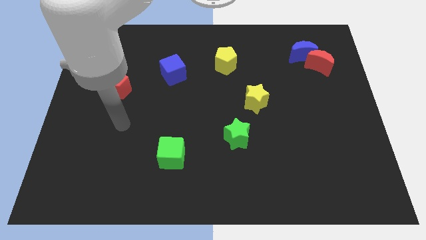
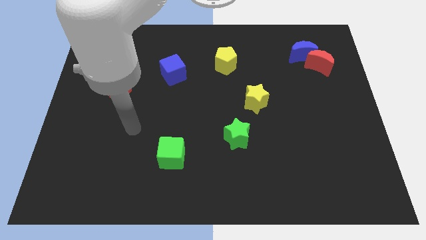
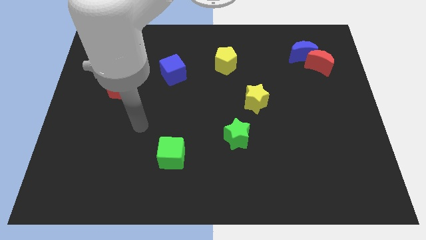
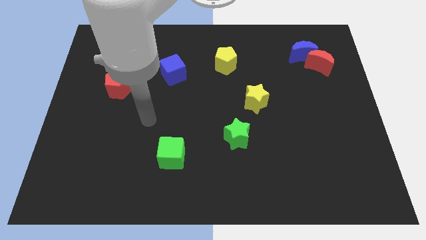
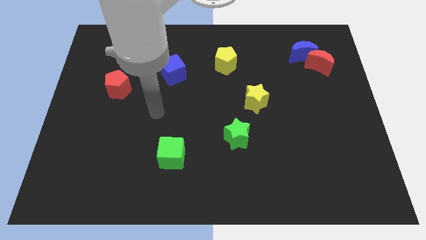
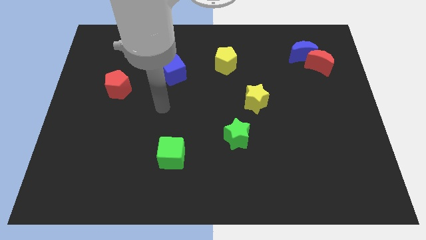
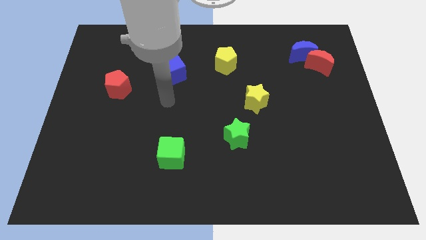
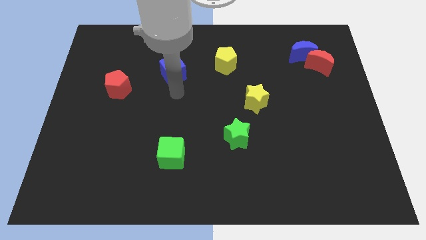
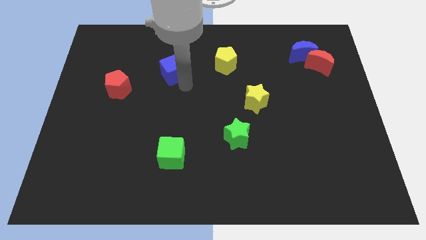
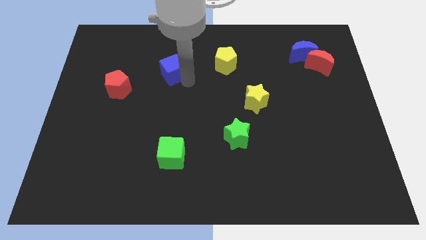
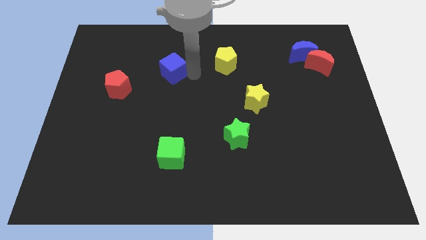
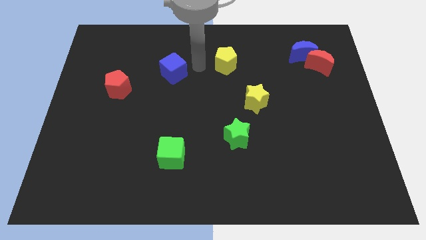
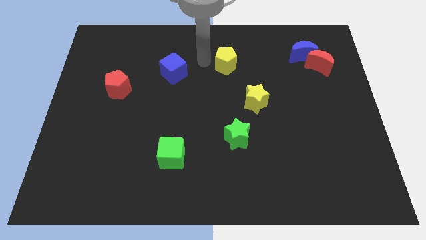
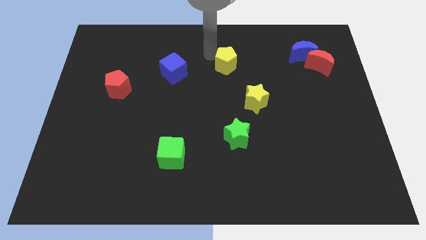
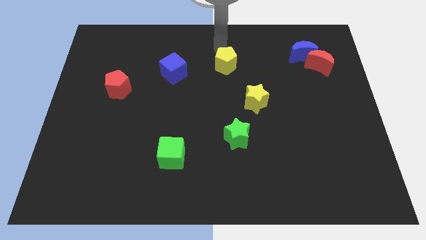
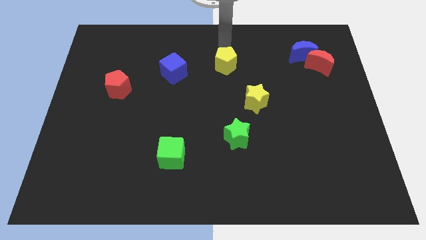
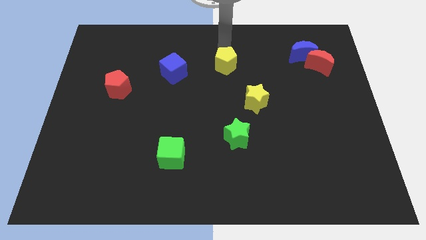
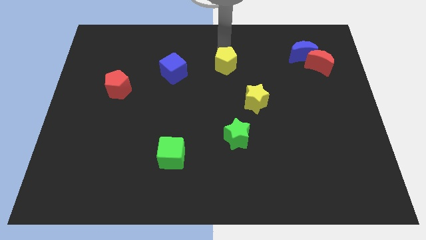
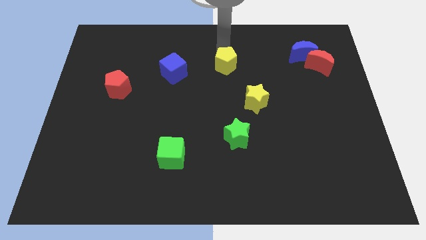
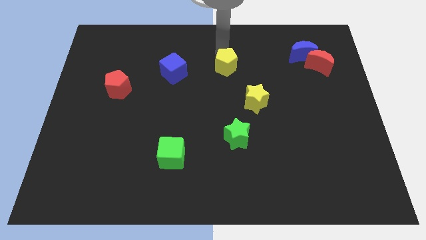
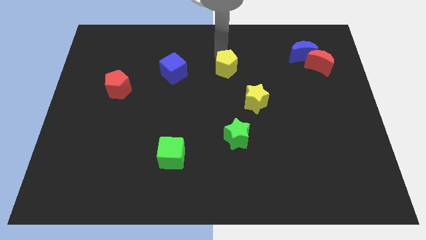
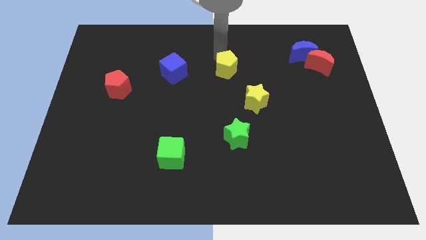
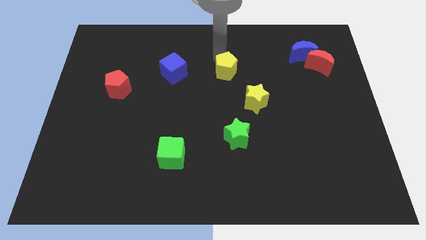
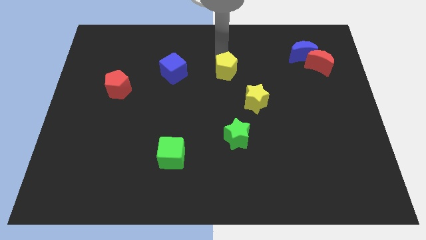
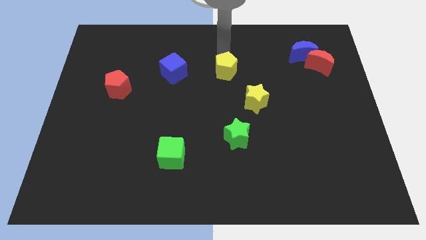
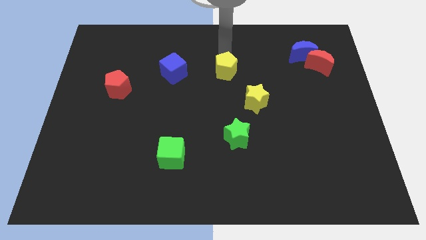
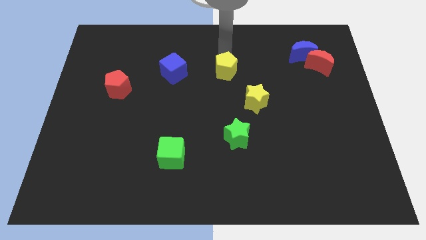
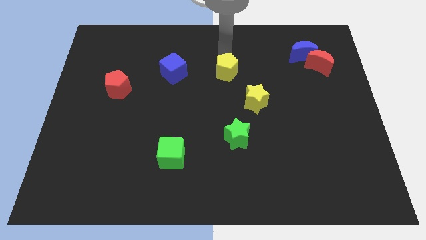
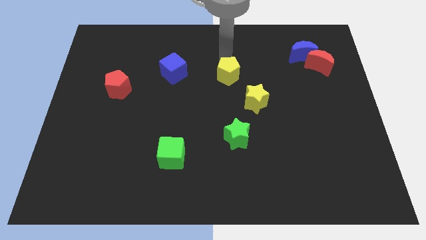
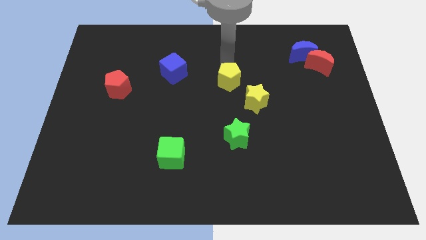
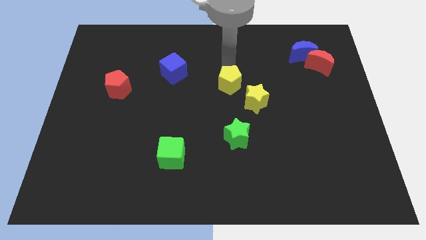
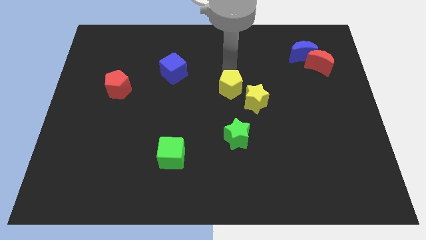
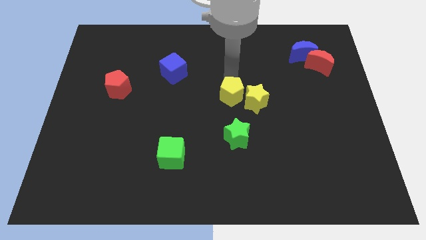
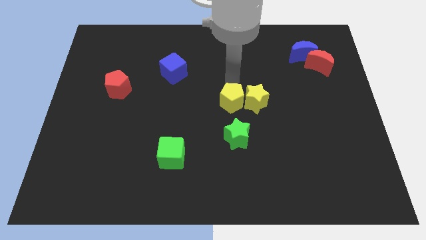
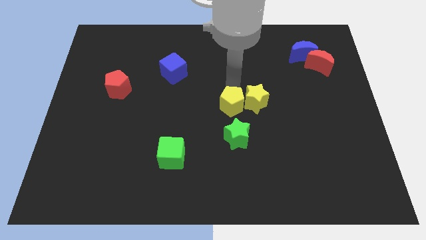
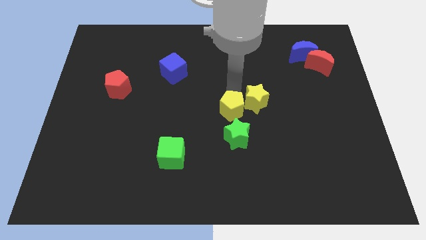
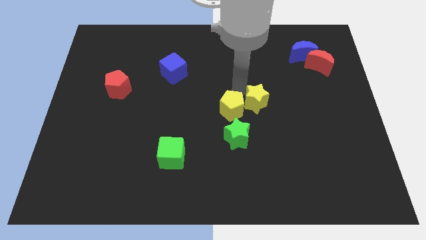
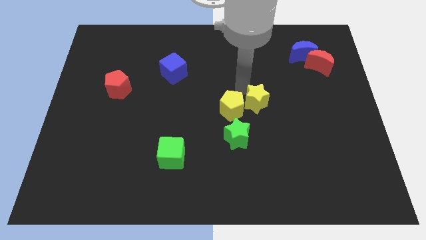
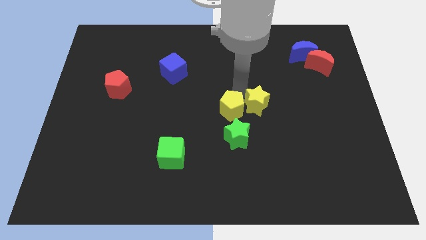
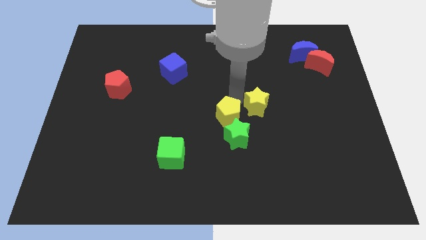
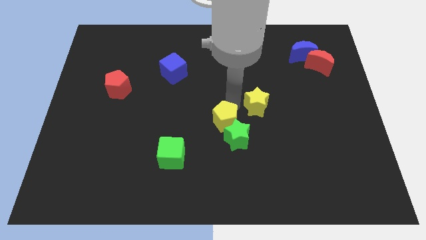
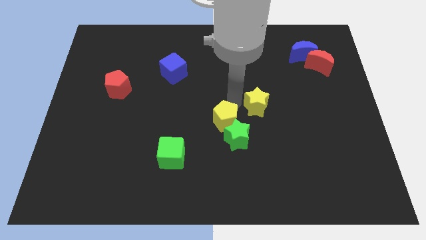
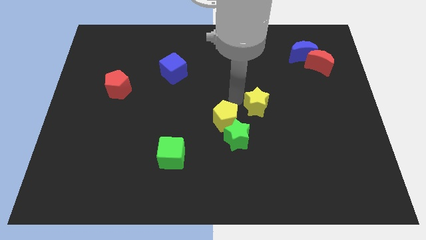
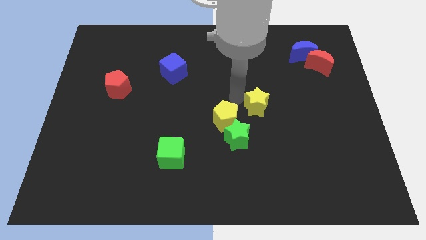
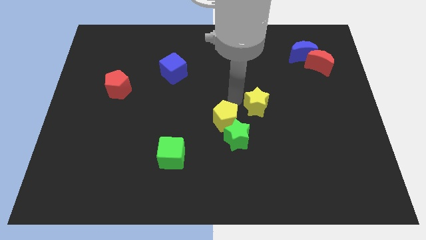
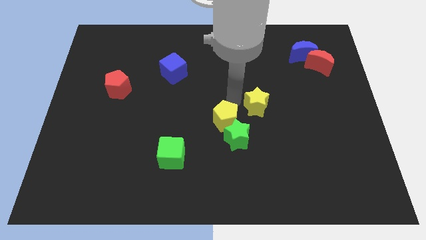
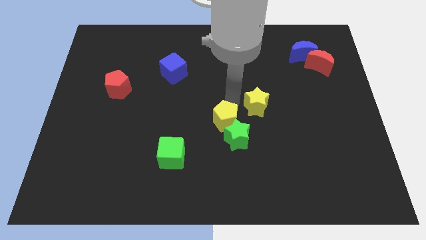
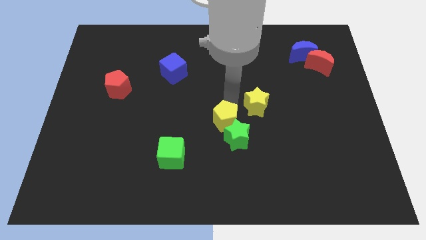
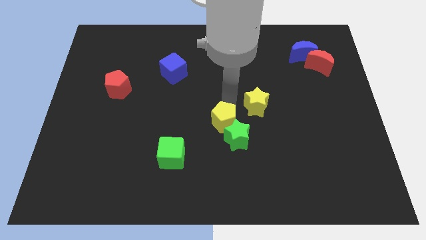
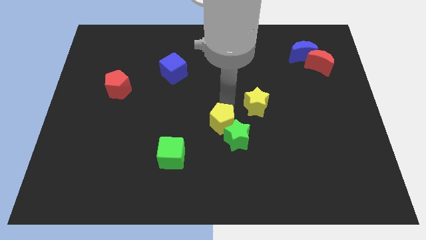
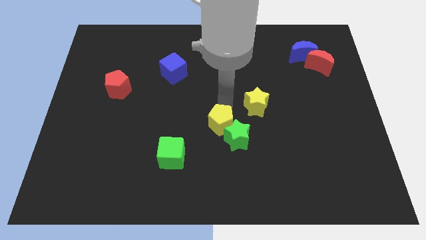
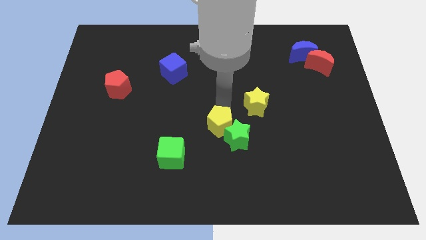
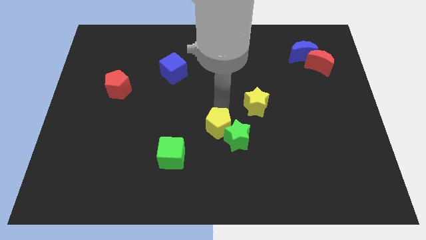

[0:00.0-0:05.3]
move the yellow pentagon down

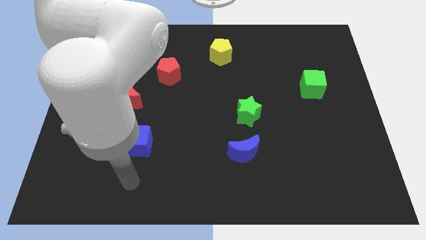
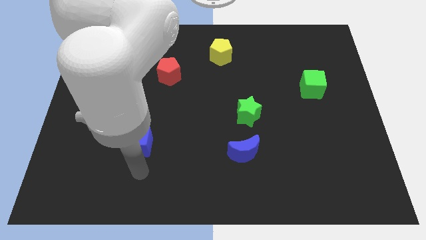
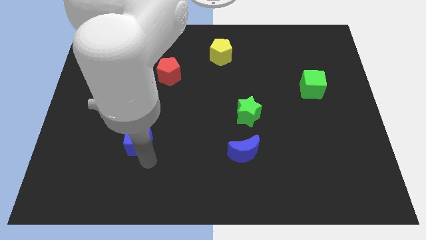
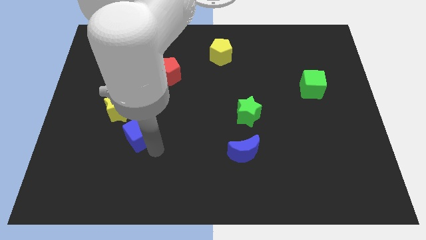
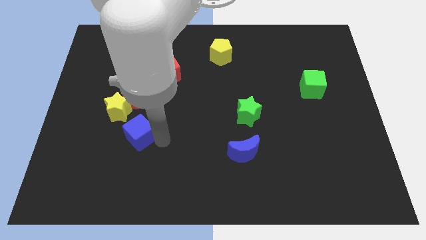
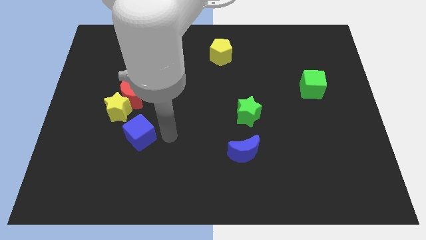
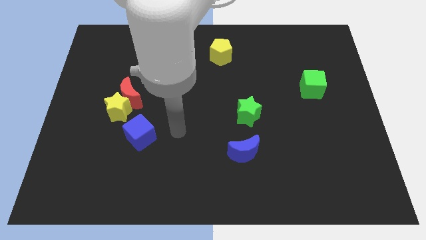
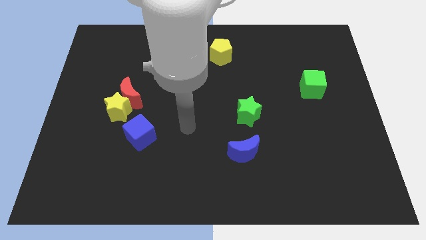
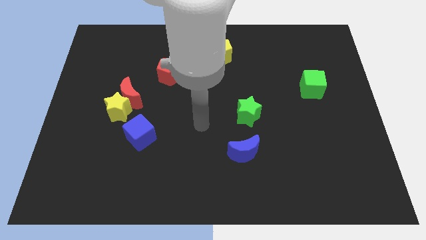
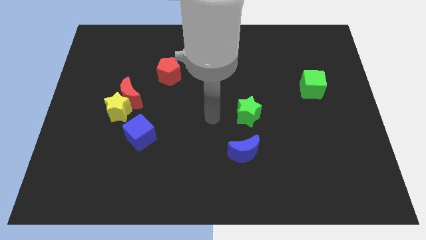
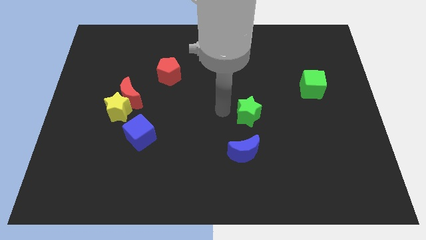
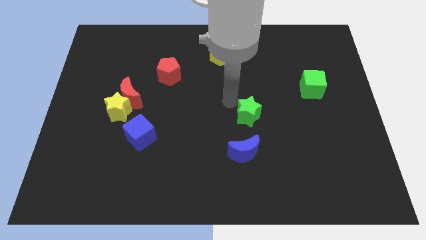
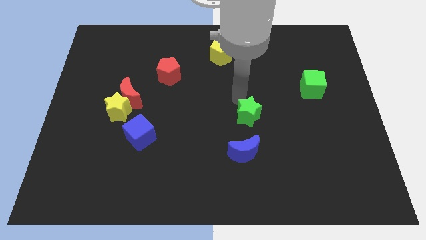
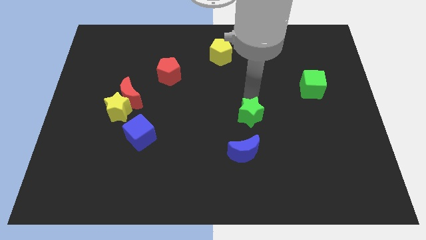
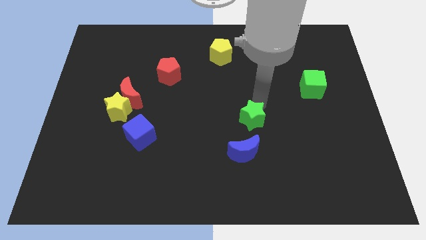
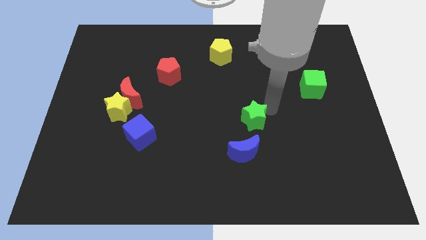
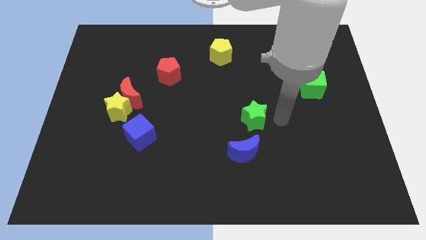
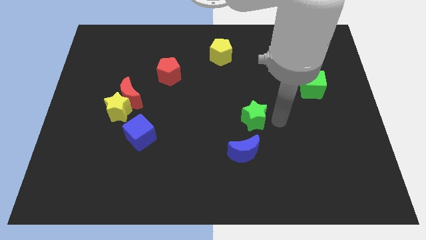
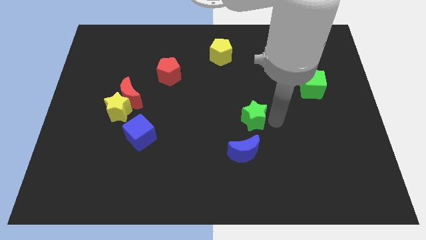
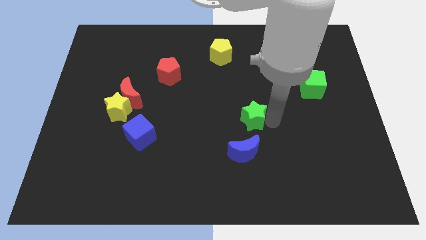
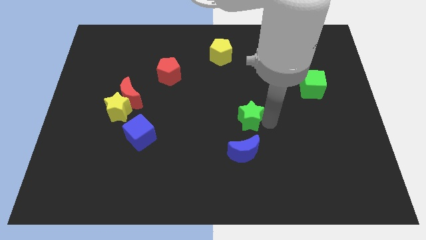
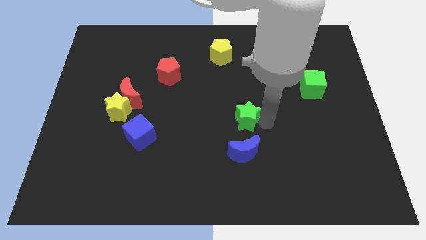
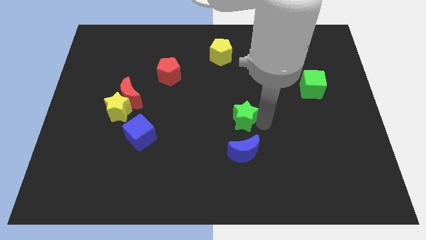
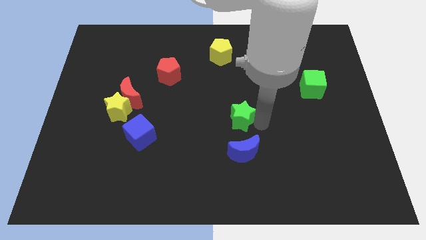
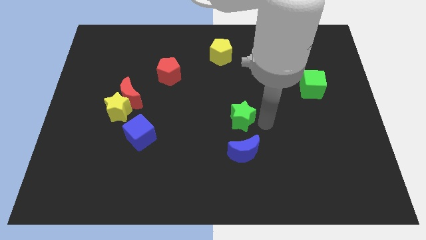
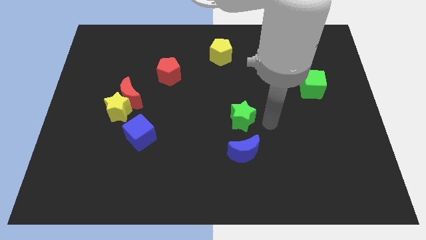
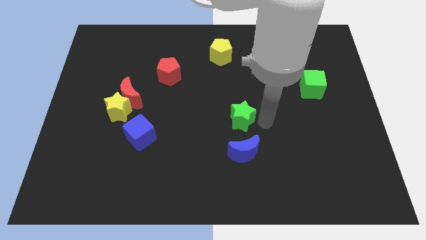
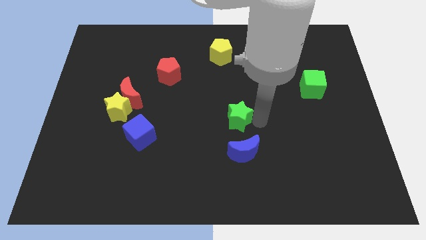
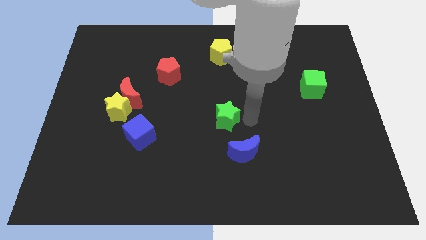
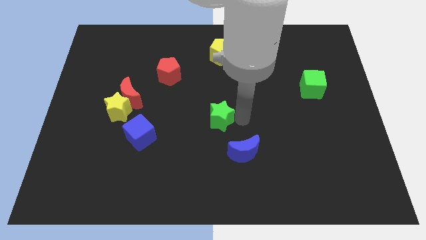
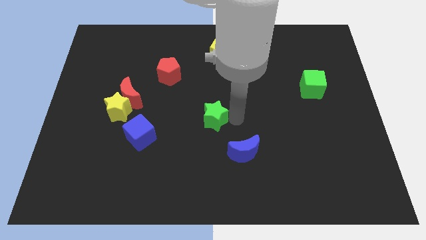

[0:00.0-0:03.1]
slightly slide the green star to the left
